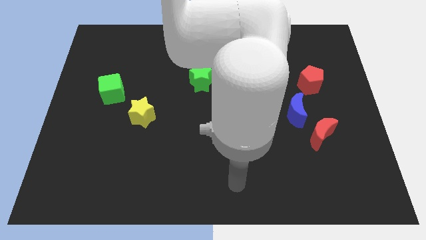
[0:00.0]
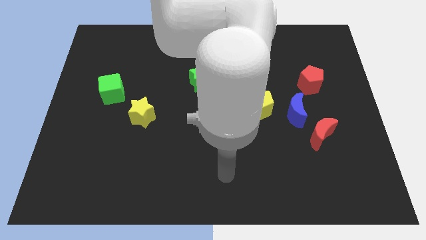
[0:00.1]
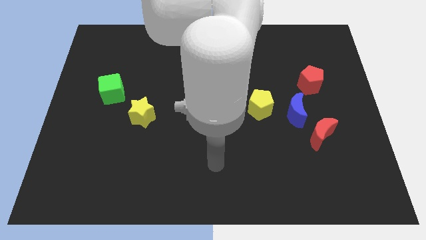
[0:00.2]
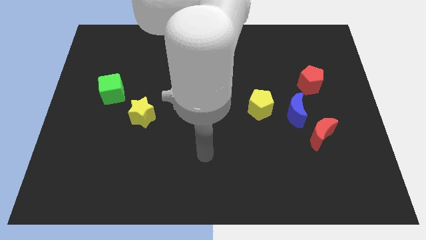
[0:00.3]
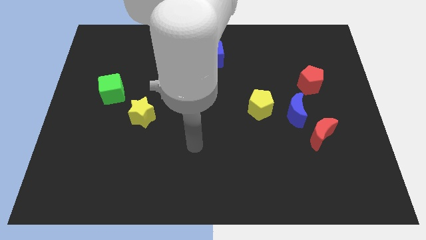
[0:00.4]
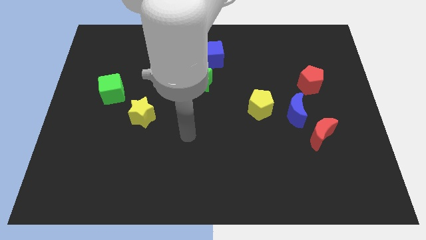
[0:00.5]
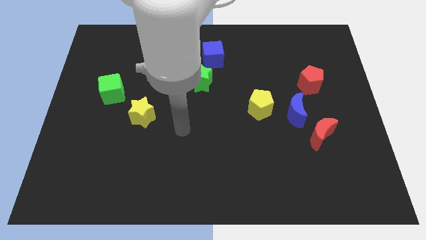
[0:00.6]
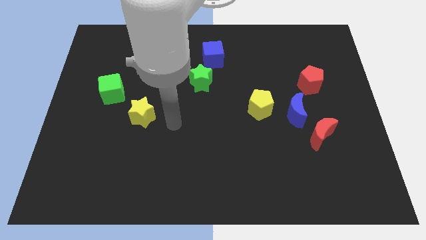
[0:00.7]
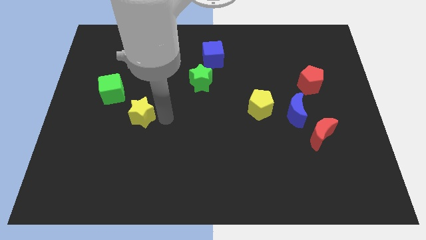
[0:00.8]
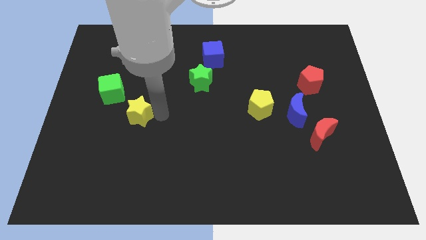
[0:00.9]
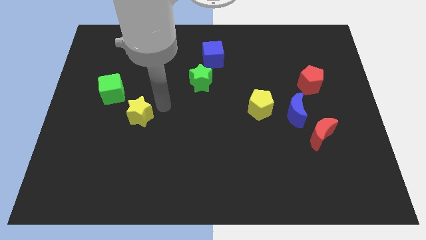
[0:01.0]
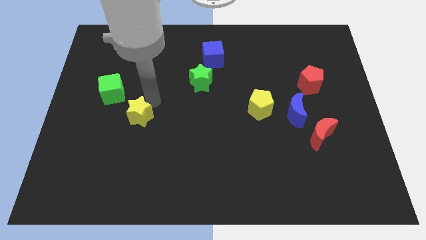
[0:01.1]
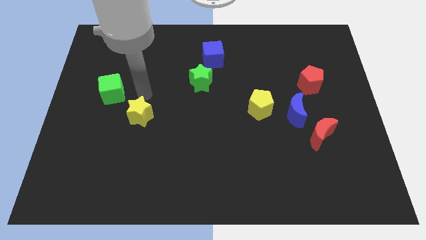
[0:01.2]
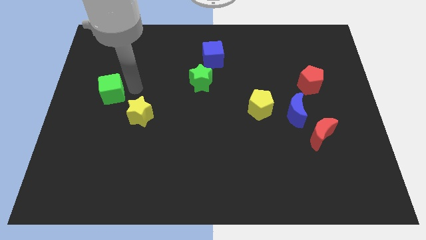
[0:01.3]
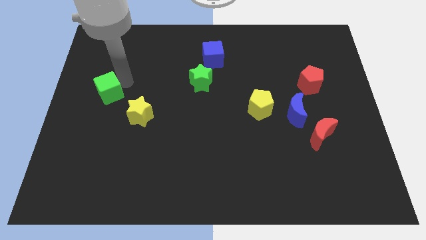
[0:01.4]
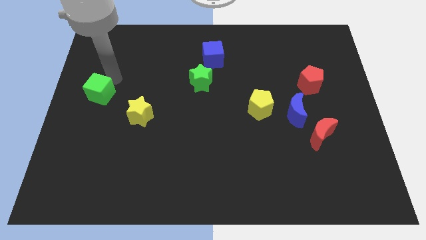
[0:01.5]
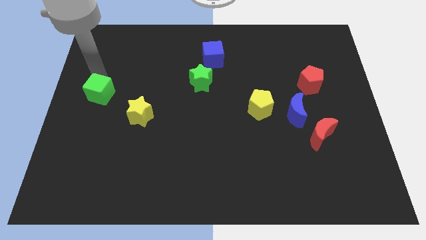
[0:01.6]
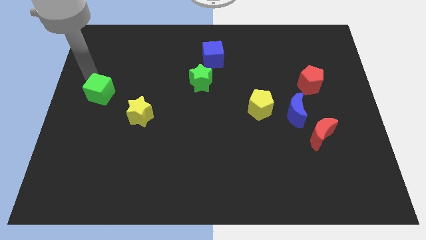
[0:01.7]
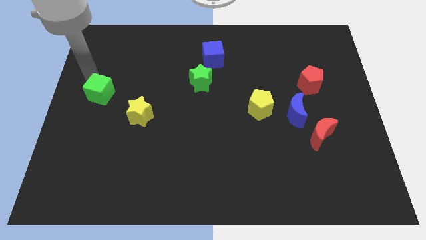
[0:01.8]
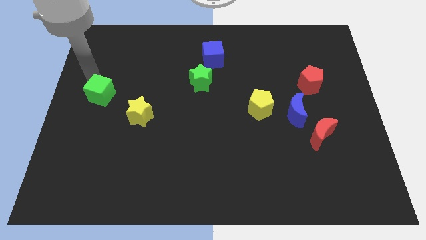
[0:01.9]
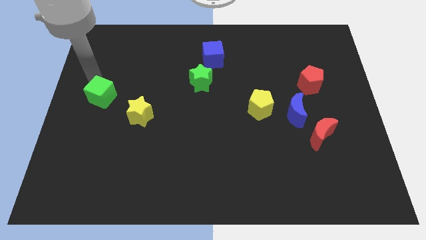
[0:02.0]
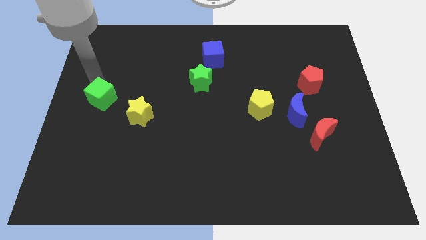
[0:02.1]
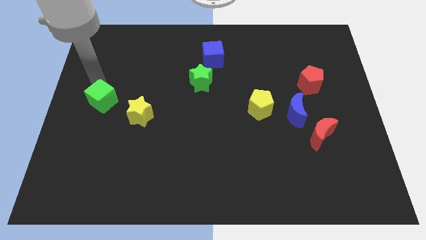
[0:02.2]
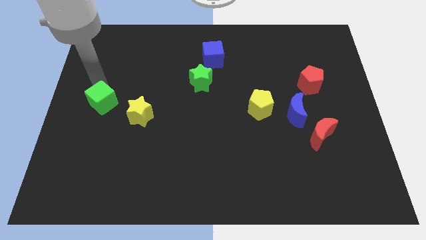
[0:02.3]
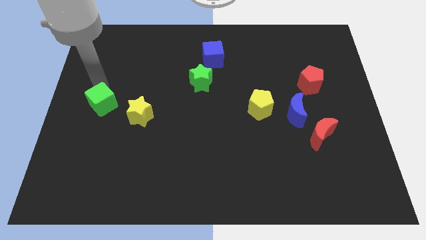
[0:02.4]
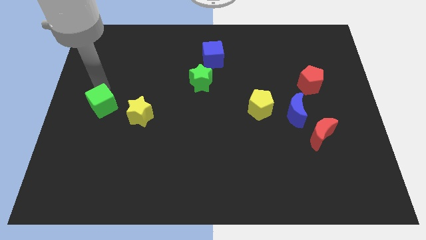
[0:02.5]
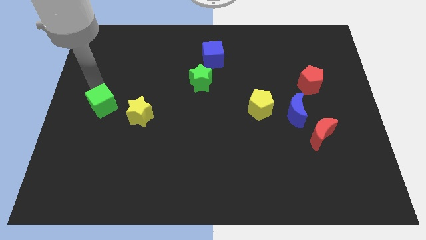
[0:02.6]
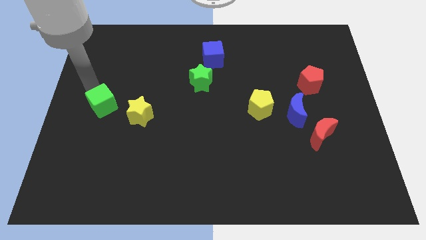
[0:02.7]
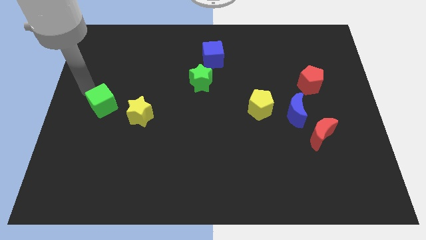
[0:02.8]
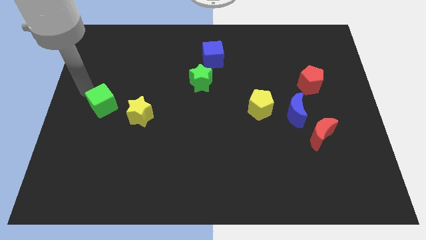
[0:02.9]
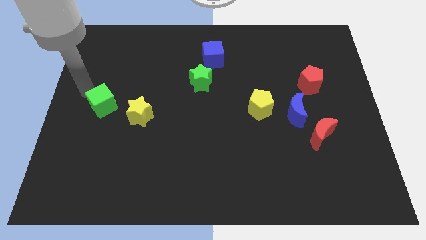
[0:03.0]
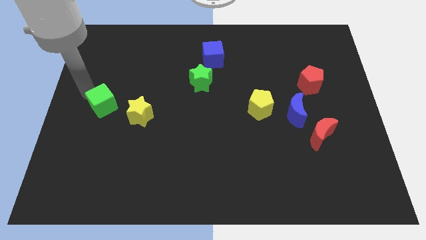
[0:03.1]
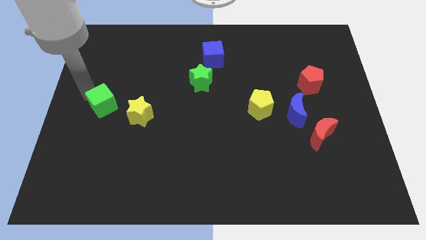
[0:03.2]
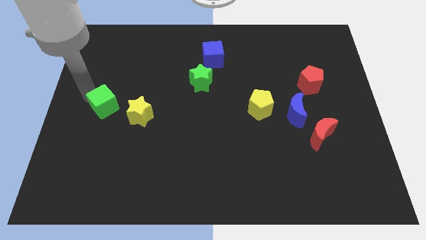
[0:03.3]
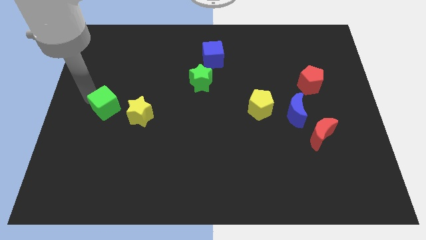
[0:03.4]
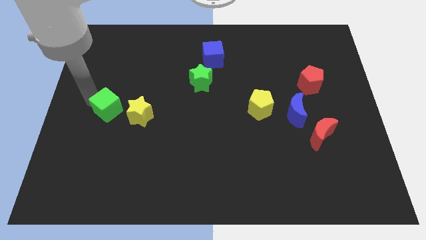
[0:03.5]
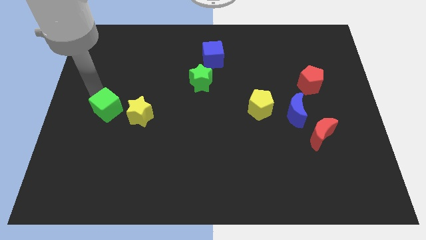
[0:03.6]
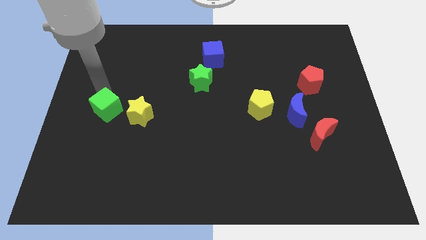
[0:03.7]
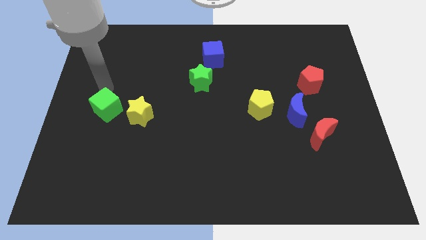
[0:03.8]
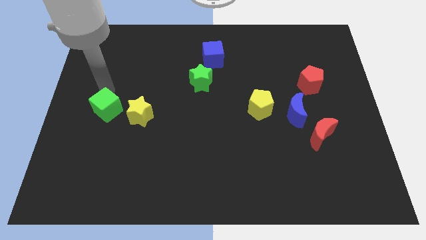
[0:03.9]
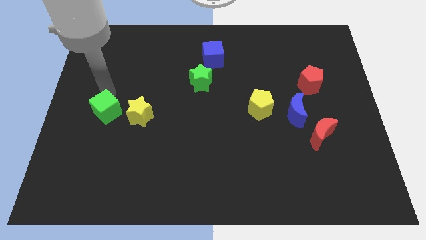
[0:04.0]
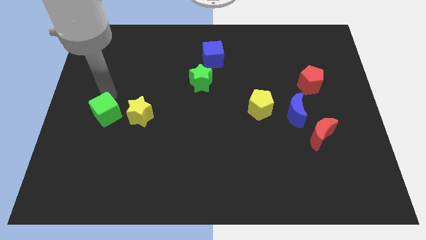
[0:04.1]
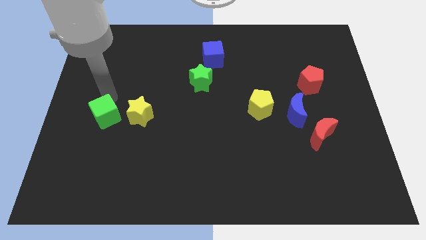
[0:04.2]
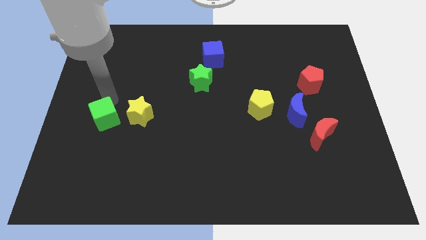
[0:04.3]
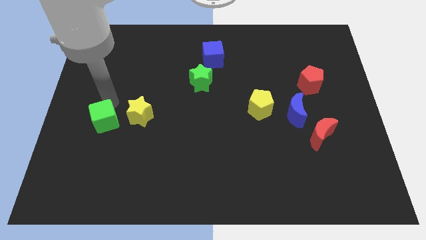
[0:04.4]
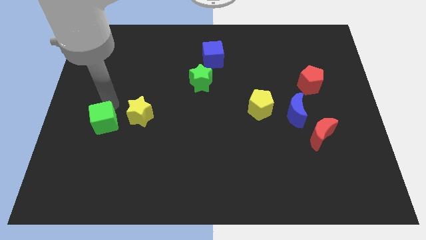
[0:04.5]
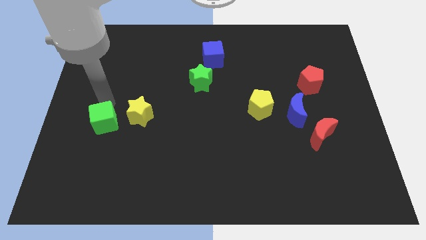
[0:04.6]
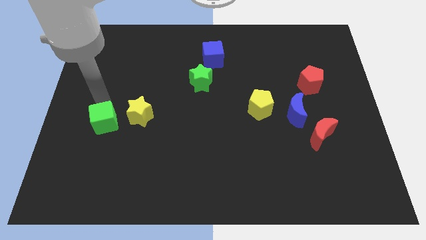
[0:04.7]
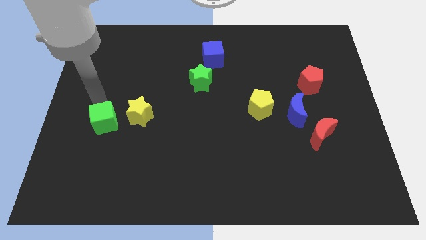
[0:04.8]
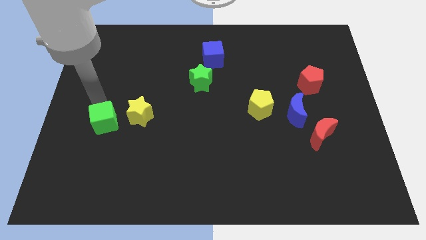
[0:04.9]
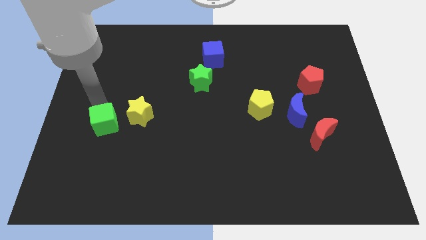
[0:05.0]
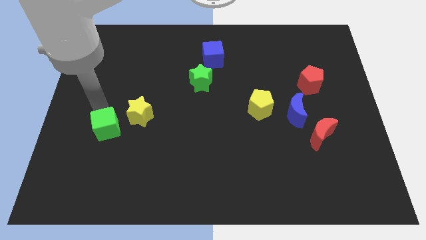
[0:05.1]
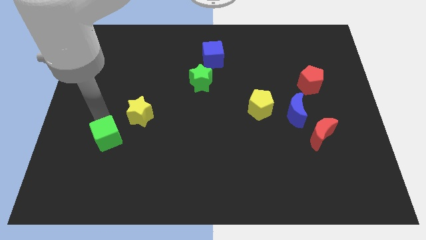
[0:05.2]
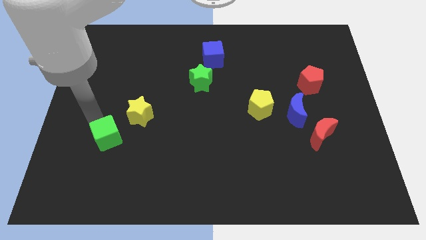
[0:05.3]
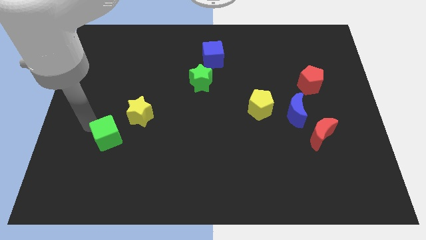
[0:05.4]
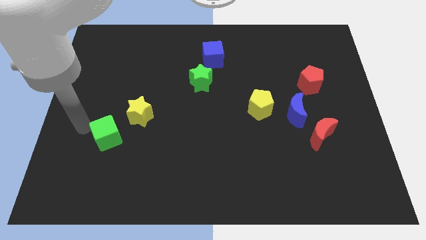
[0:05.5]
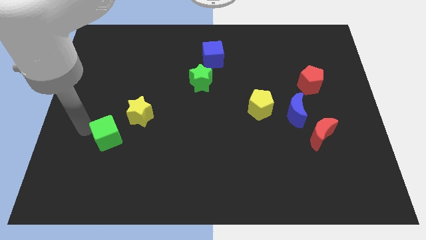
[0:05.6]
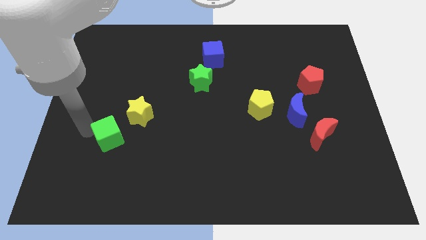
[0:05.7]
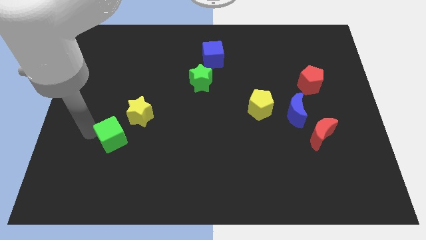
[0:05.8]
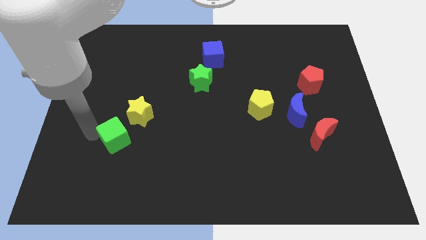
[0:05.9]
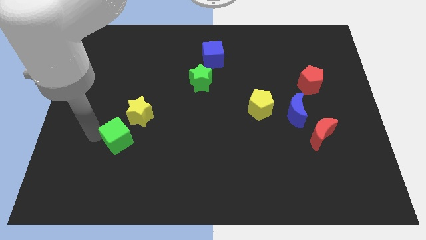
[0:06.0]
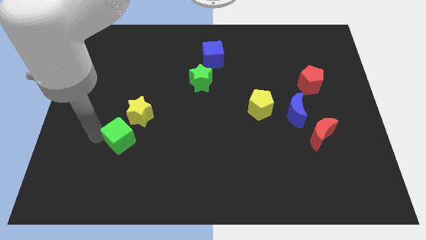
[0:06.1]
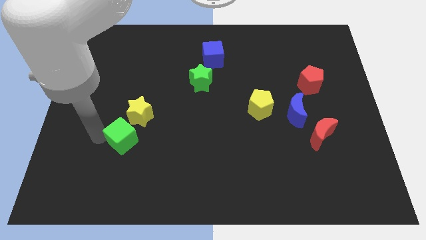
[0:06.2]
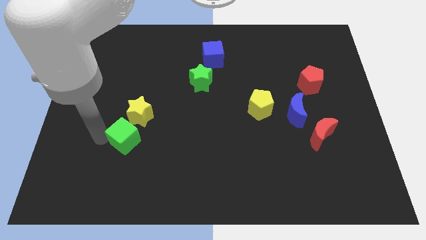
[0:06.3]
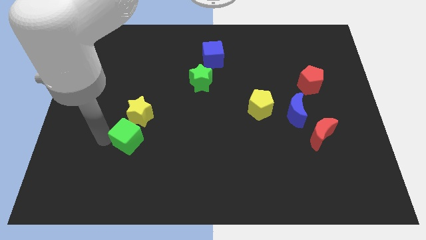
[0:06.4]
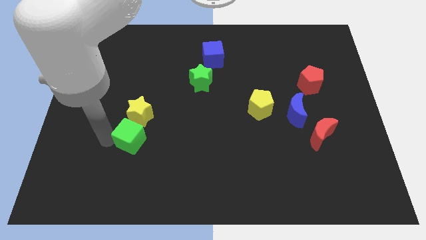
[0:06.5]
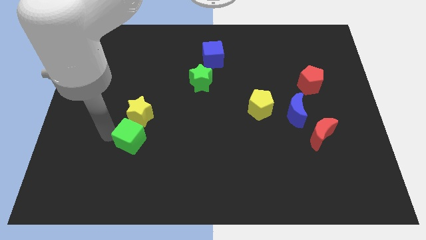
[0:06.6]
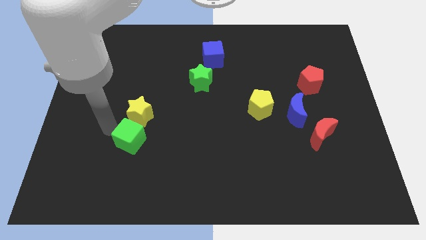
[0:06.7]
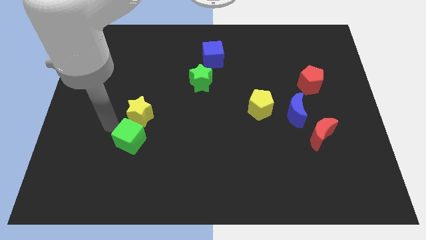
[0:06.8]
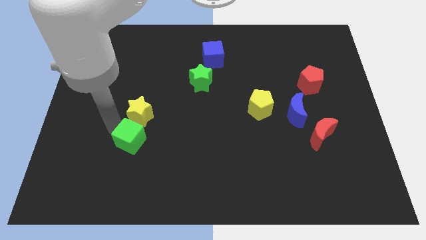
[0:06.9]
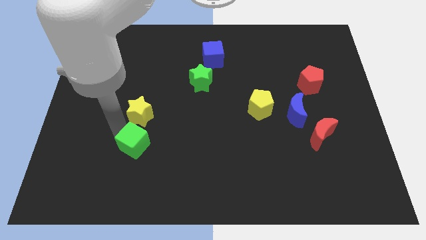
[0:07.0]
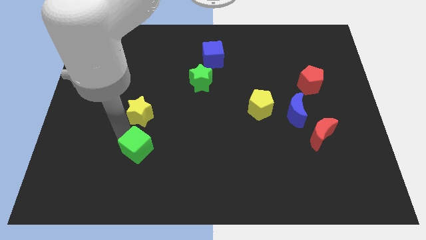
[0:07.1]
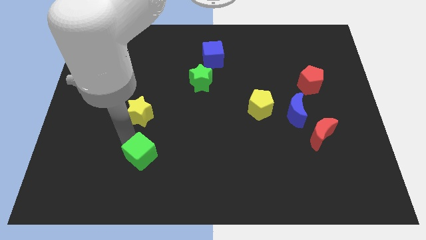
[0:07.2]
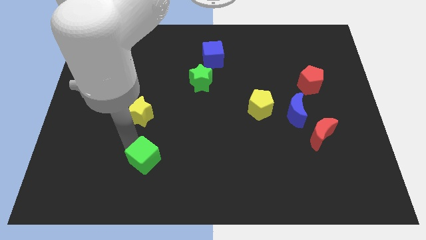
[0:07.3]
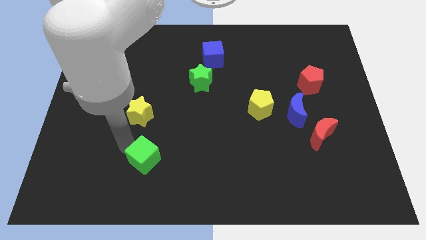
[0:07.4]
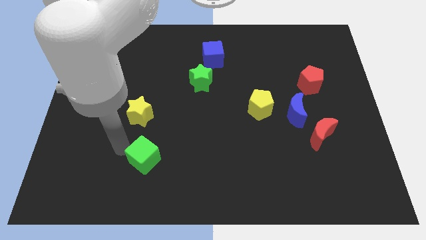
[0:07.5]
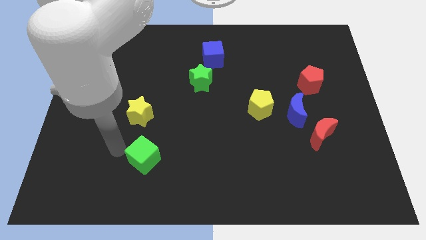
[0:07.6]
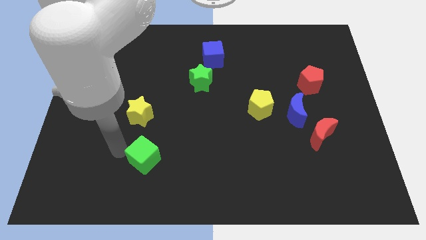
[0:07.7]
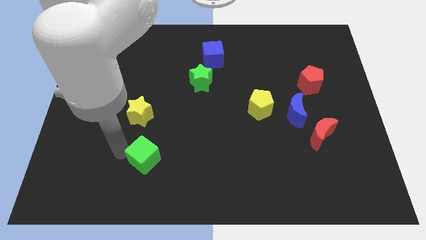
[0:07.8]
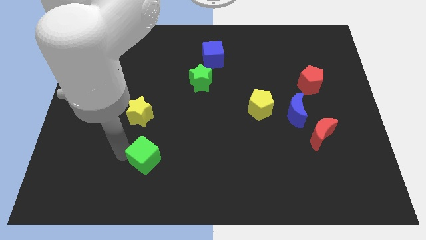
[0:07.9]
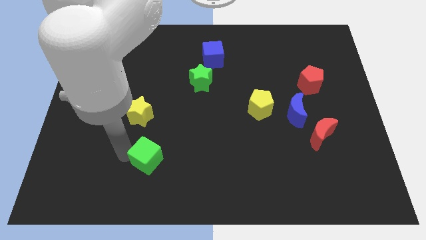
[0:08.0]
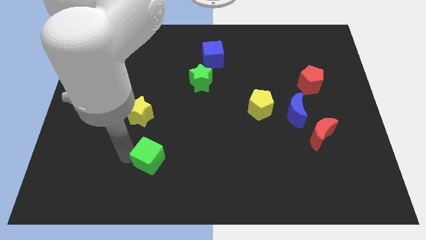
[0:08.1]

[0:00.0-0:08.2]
push the green cube diagonally down and to the right
